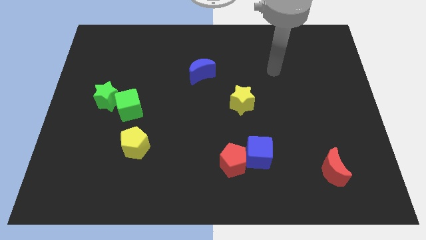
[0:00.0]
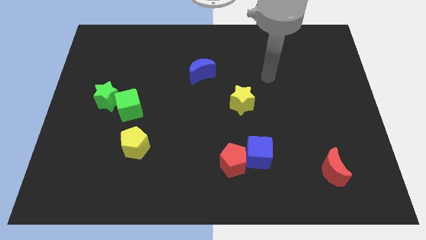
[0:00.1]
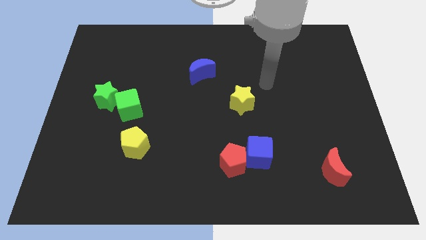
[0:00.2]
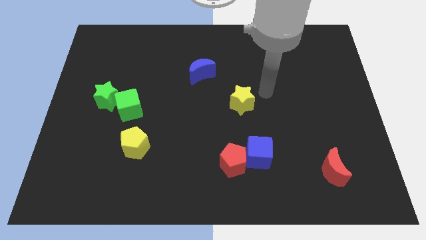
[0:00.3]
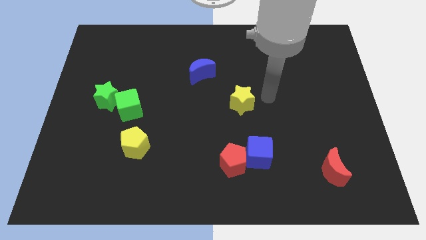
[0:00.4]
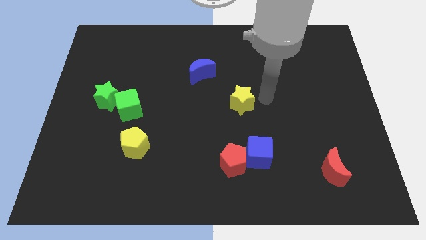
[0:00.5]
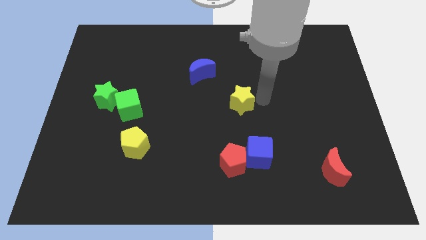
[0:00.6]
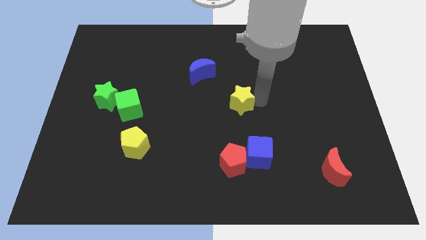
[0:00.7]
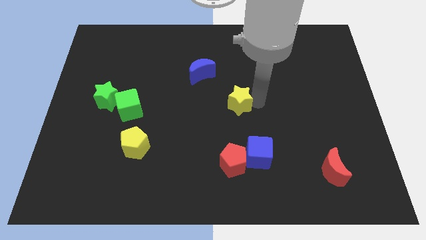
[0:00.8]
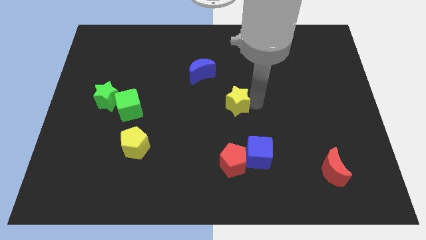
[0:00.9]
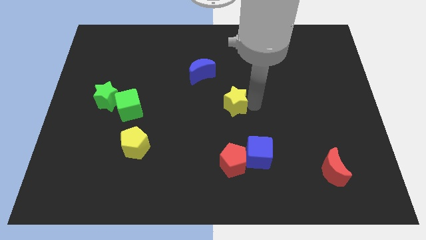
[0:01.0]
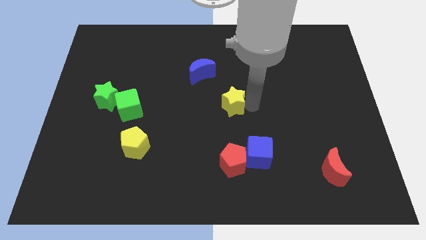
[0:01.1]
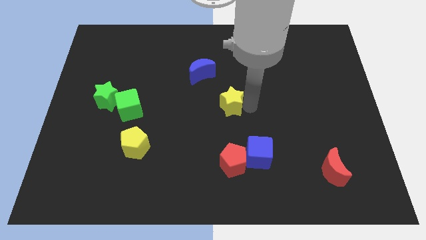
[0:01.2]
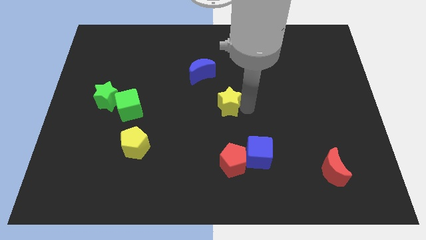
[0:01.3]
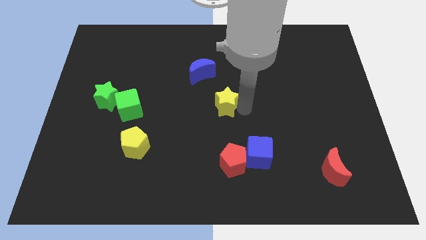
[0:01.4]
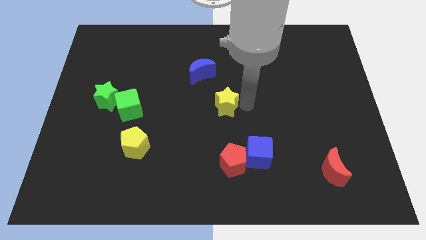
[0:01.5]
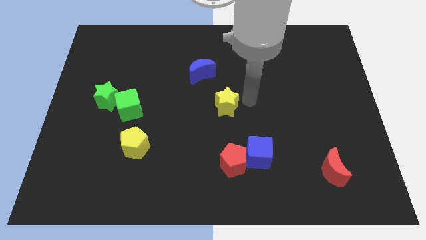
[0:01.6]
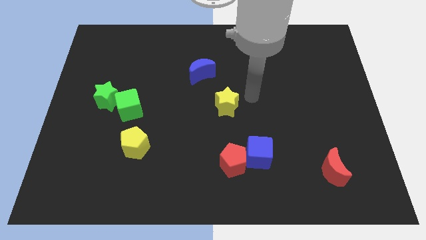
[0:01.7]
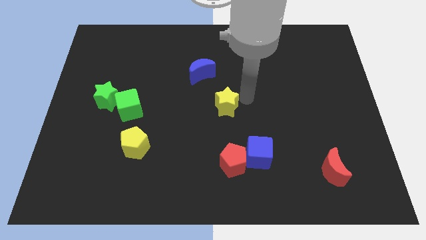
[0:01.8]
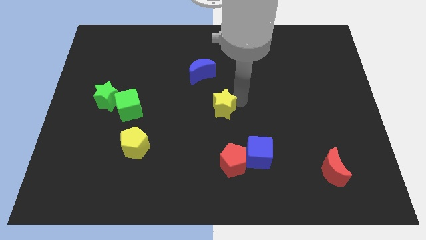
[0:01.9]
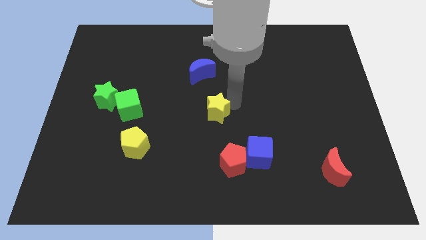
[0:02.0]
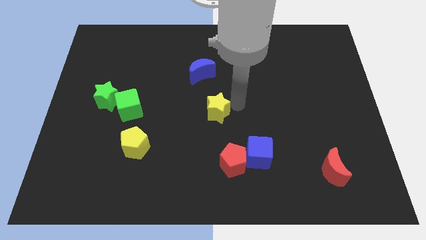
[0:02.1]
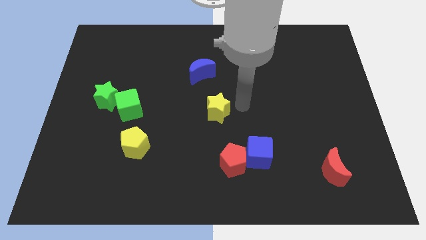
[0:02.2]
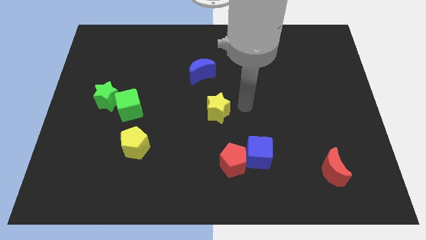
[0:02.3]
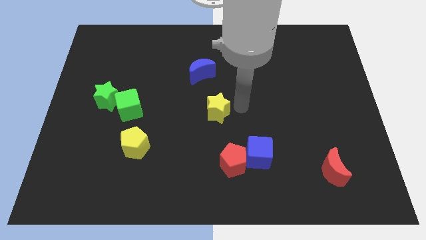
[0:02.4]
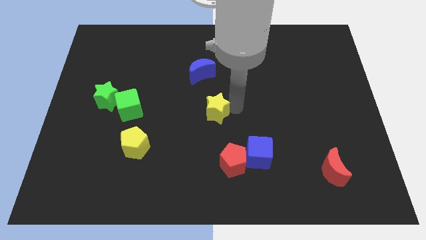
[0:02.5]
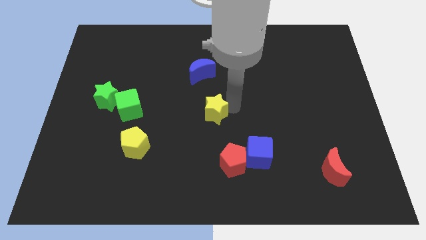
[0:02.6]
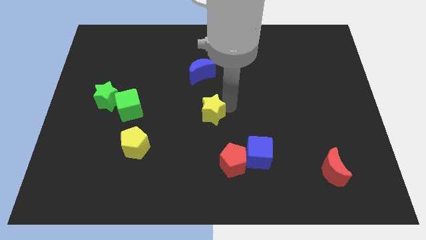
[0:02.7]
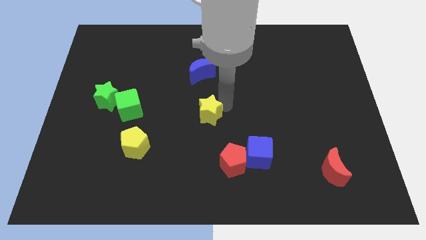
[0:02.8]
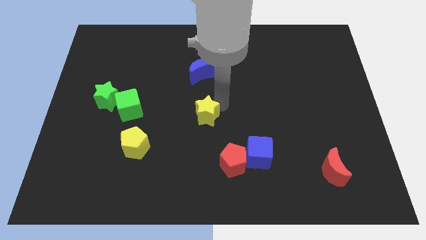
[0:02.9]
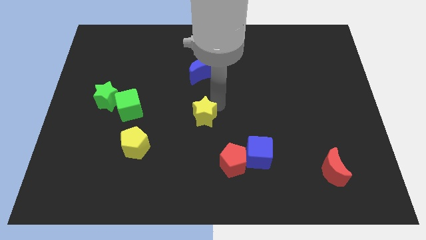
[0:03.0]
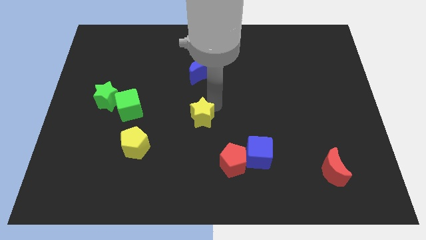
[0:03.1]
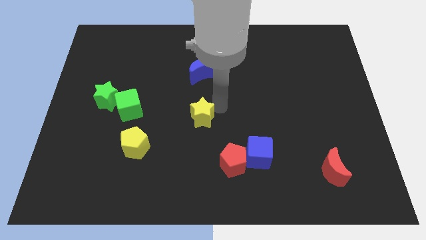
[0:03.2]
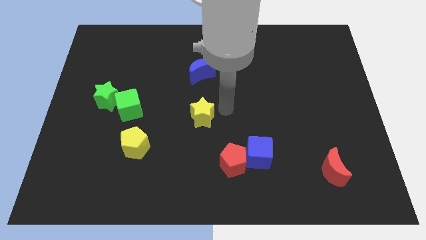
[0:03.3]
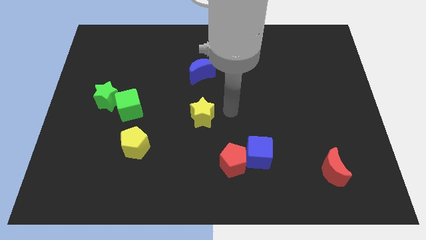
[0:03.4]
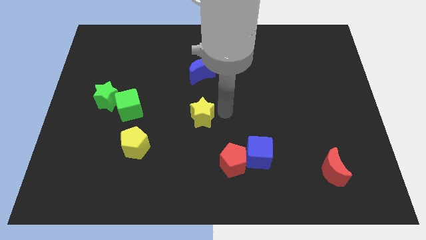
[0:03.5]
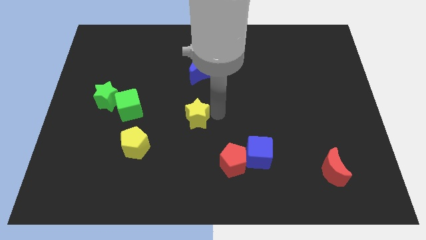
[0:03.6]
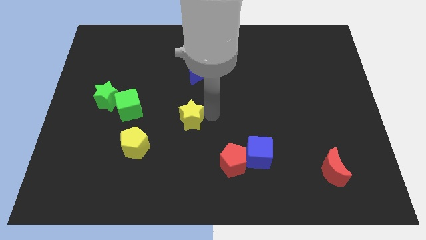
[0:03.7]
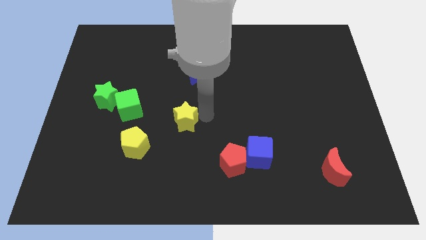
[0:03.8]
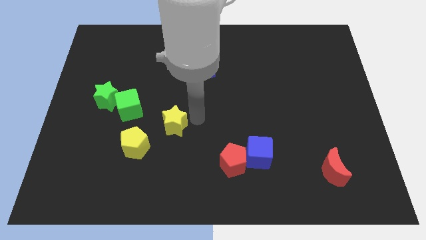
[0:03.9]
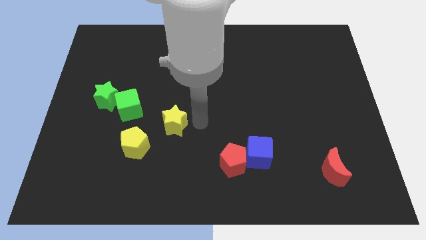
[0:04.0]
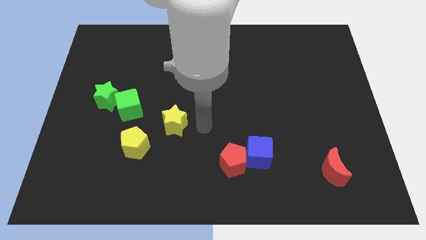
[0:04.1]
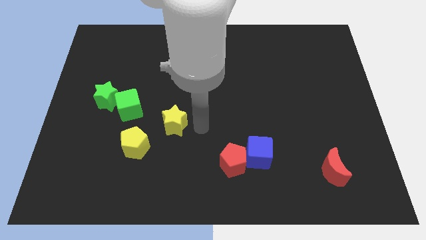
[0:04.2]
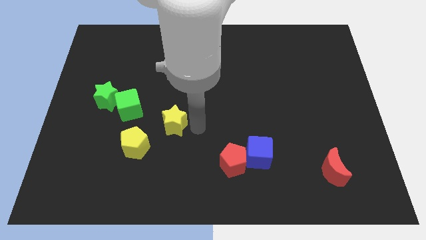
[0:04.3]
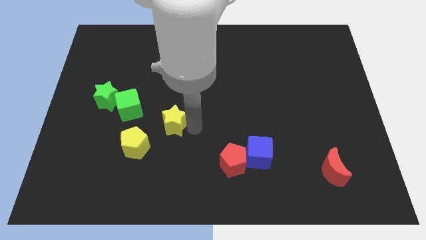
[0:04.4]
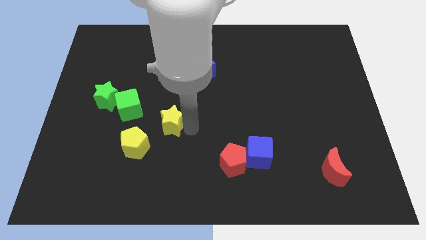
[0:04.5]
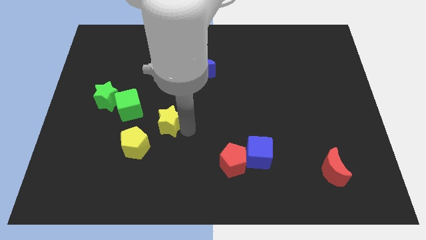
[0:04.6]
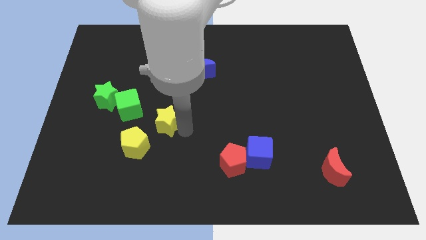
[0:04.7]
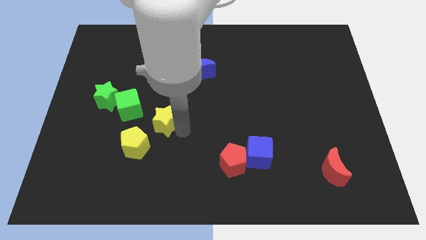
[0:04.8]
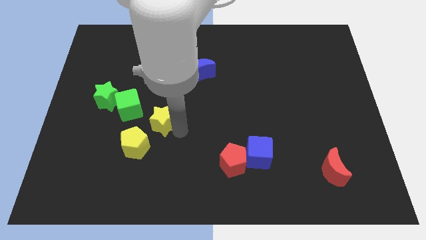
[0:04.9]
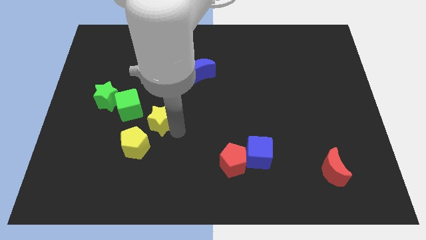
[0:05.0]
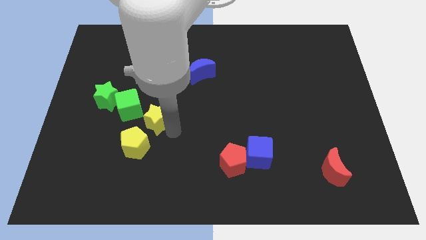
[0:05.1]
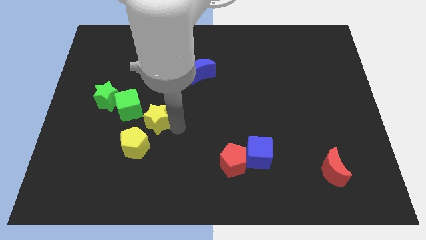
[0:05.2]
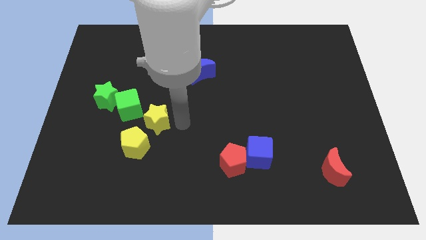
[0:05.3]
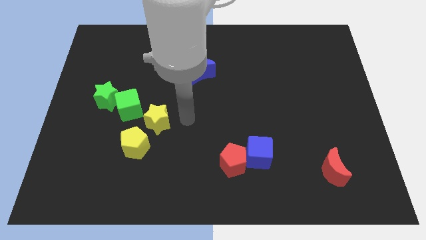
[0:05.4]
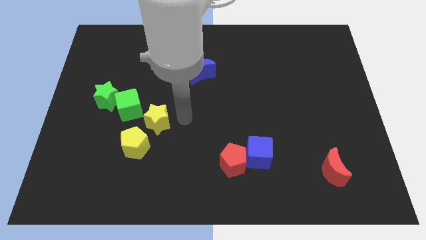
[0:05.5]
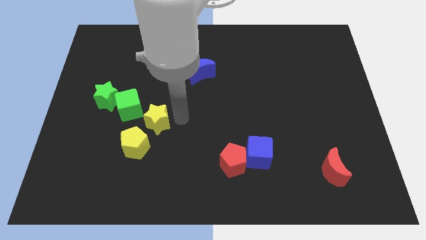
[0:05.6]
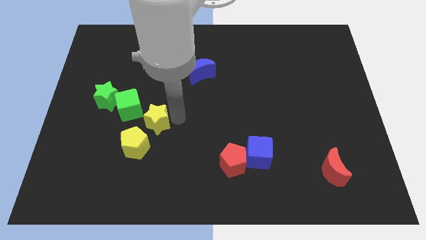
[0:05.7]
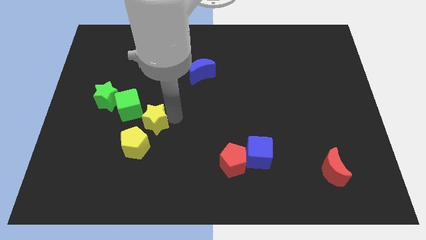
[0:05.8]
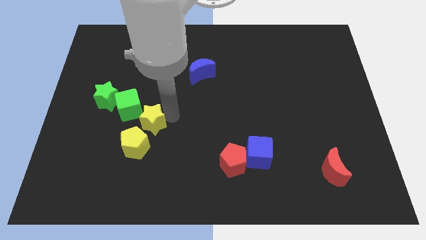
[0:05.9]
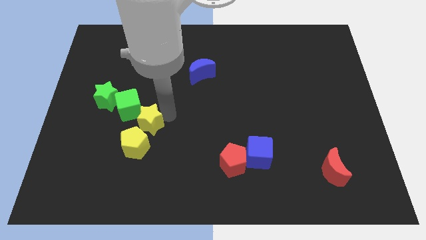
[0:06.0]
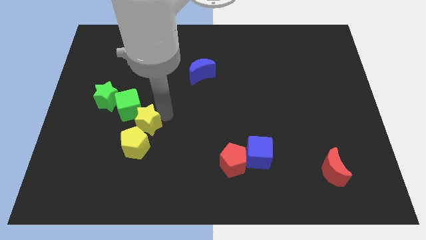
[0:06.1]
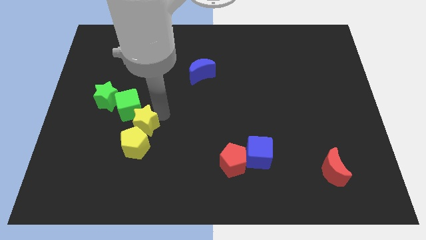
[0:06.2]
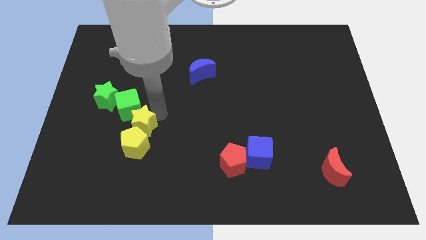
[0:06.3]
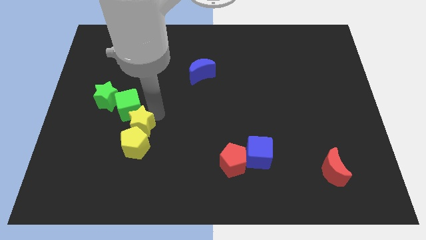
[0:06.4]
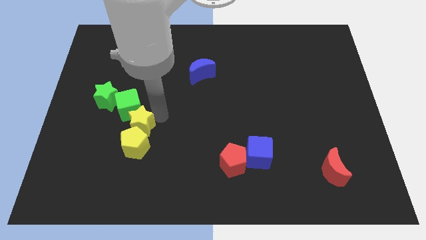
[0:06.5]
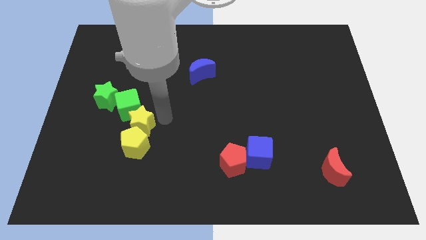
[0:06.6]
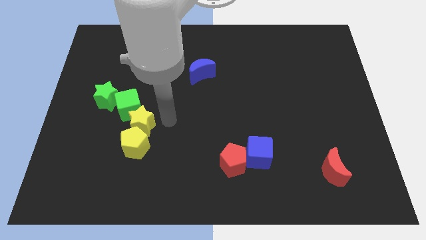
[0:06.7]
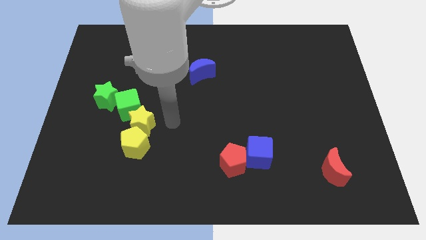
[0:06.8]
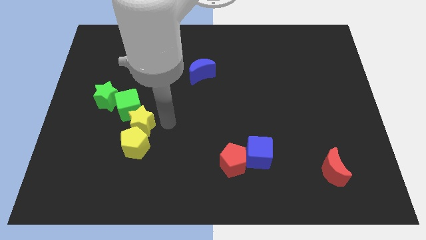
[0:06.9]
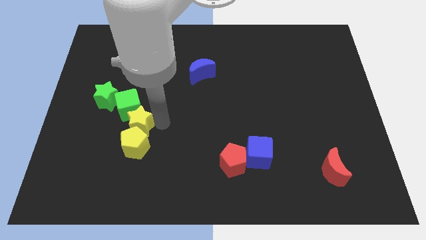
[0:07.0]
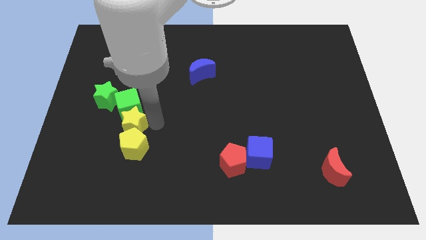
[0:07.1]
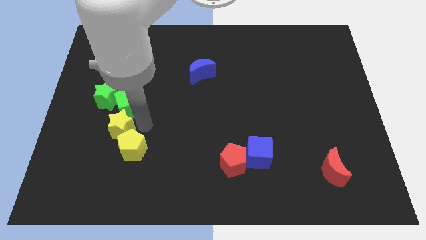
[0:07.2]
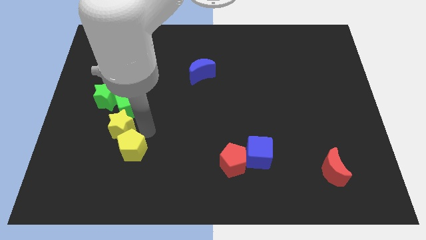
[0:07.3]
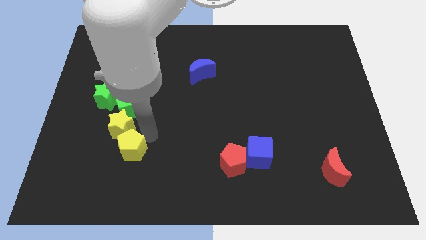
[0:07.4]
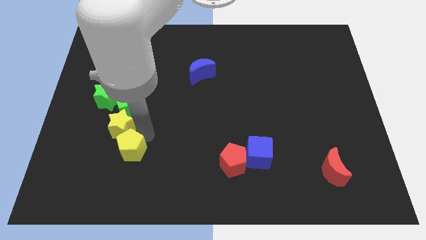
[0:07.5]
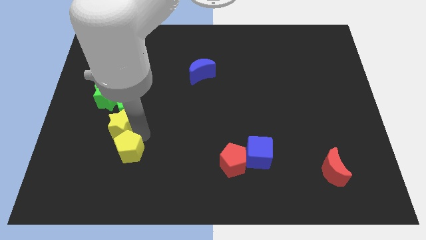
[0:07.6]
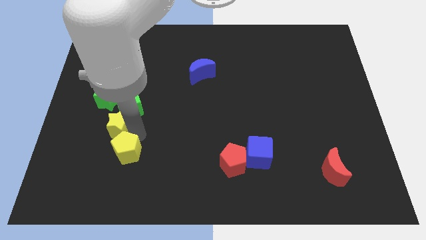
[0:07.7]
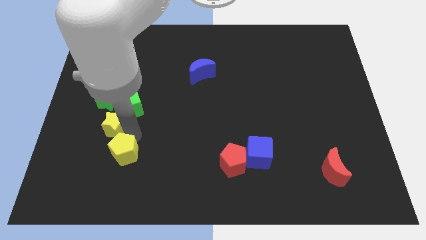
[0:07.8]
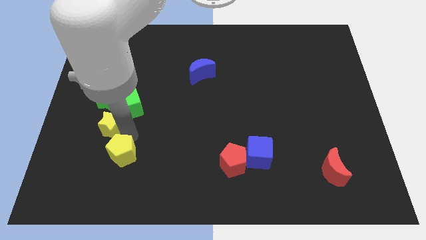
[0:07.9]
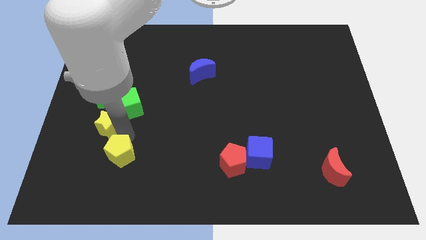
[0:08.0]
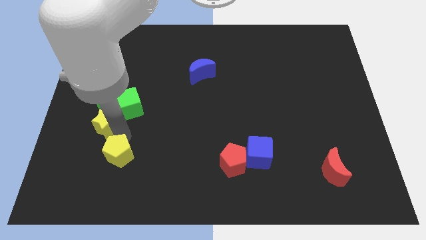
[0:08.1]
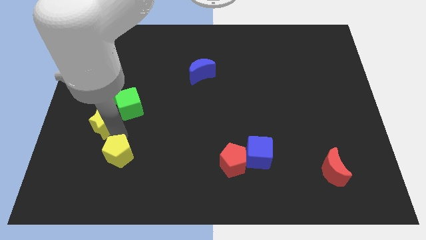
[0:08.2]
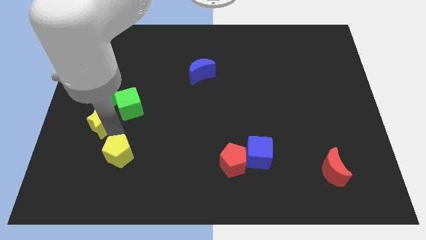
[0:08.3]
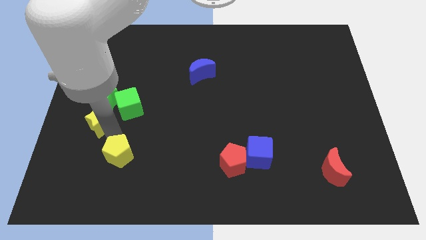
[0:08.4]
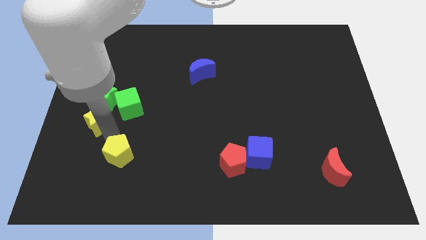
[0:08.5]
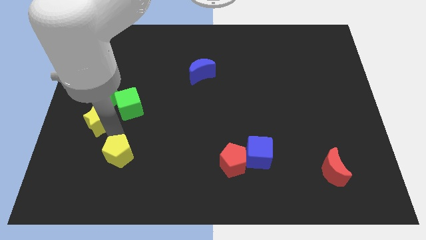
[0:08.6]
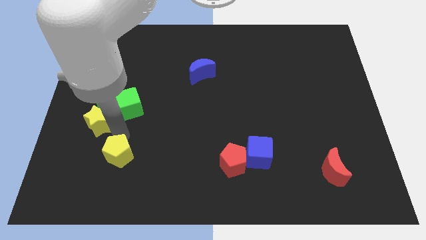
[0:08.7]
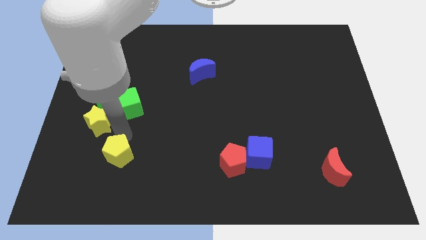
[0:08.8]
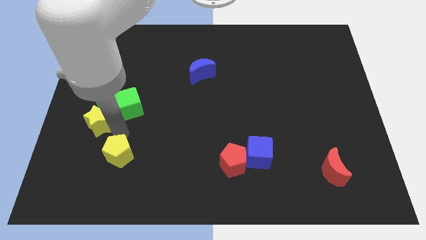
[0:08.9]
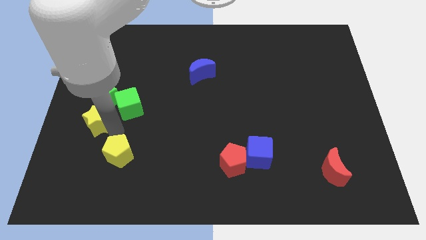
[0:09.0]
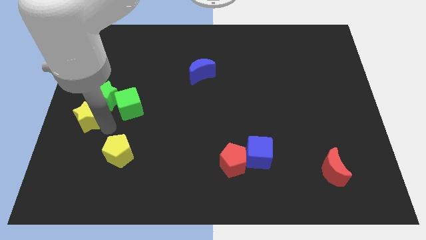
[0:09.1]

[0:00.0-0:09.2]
slide the yellow star to the left side of the board
